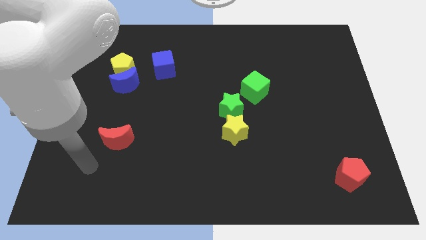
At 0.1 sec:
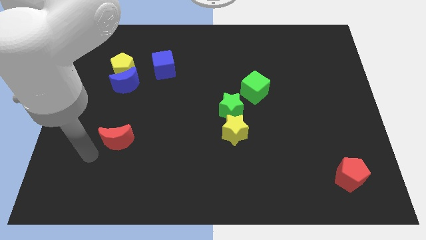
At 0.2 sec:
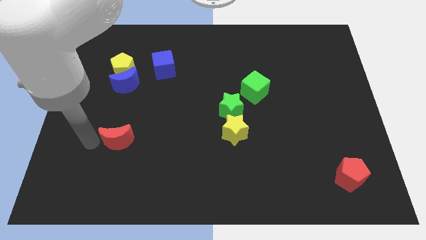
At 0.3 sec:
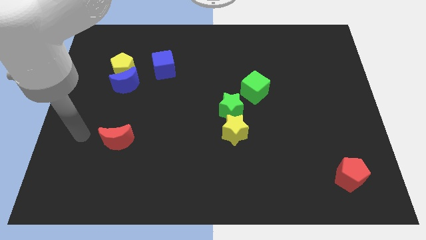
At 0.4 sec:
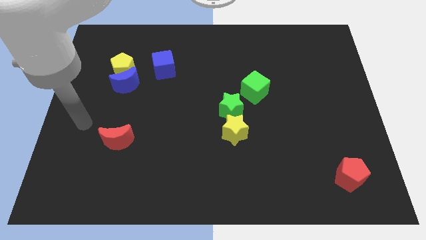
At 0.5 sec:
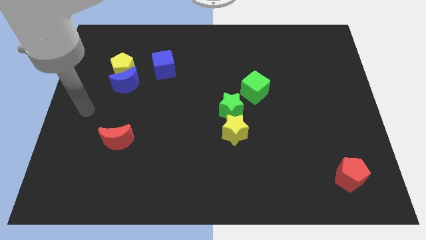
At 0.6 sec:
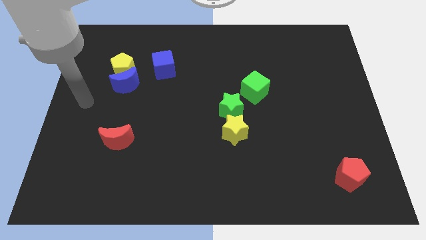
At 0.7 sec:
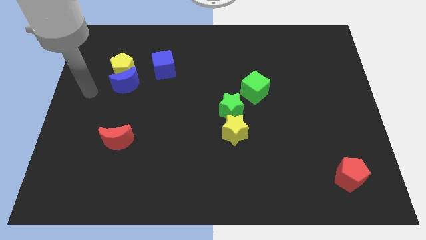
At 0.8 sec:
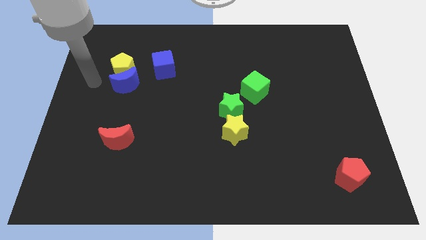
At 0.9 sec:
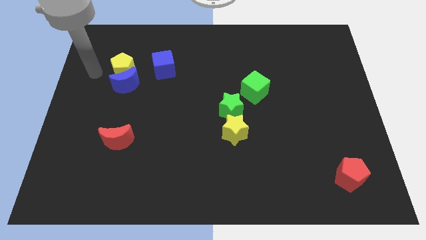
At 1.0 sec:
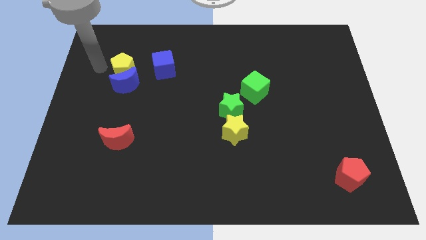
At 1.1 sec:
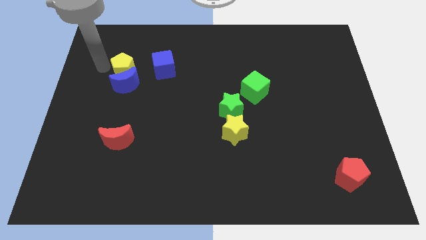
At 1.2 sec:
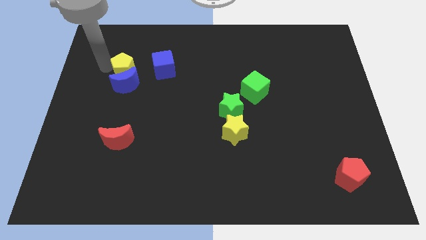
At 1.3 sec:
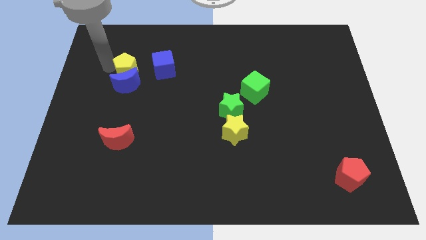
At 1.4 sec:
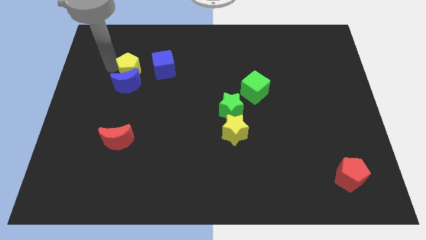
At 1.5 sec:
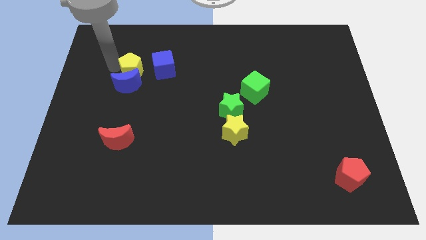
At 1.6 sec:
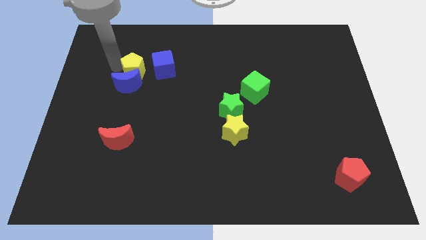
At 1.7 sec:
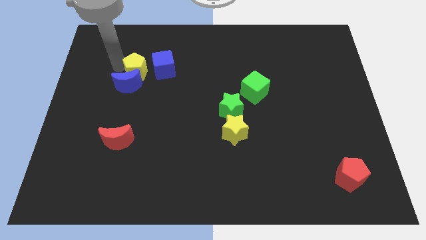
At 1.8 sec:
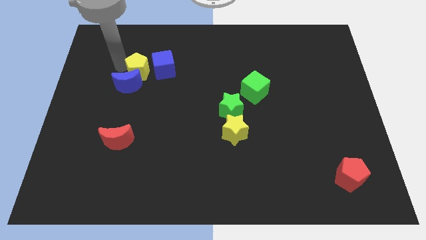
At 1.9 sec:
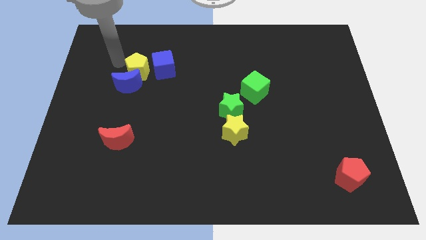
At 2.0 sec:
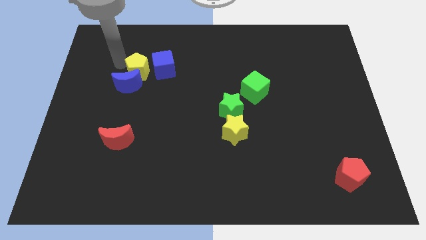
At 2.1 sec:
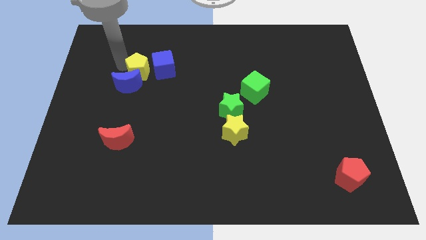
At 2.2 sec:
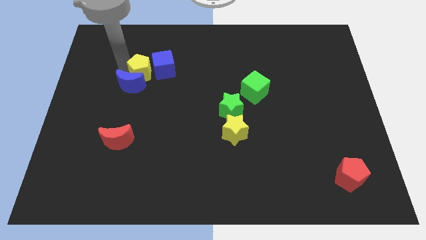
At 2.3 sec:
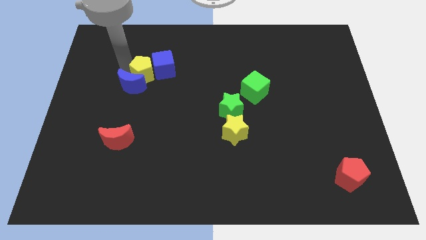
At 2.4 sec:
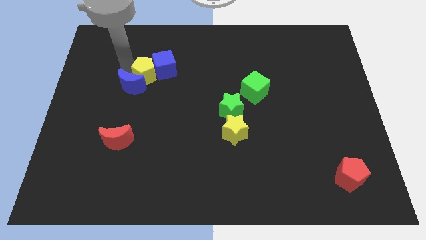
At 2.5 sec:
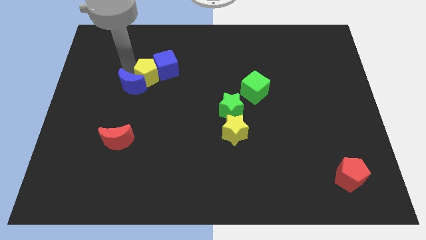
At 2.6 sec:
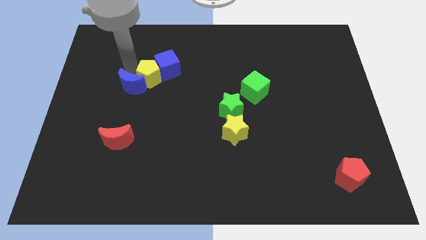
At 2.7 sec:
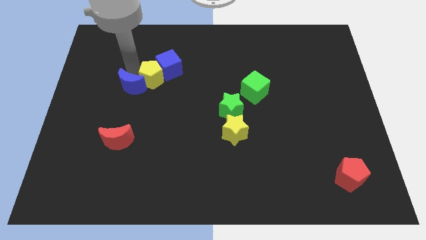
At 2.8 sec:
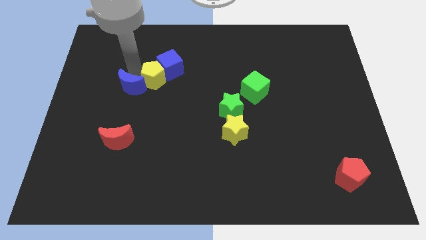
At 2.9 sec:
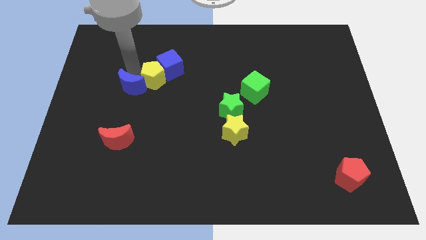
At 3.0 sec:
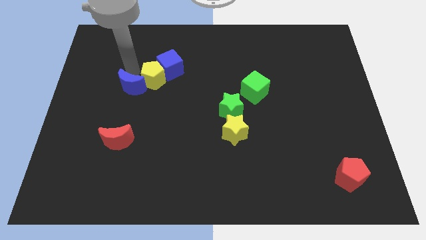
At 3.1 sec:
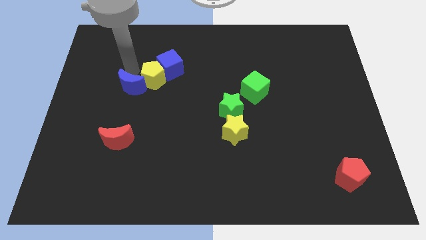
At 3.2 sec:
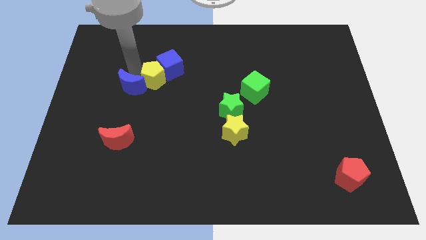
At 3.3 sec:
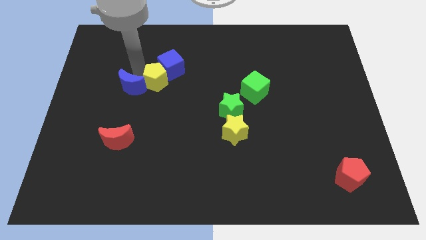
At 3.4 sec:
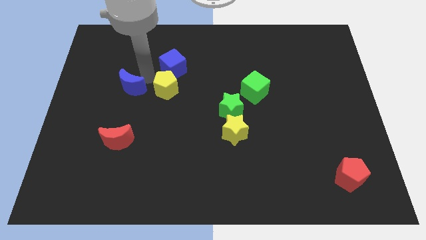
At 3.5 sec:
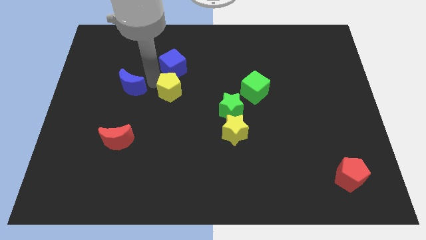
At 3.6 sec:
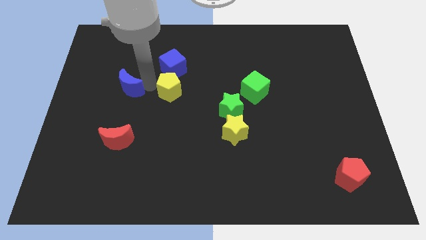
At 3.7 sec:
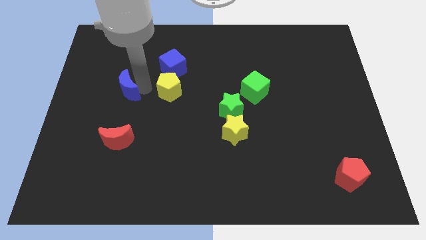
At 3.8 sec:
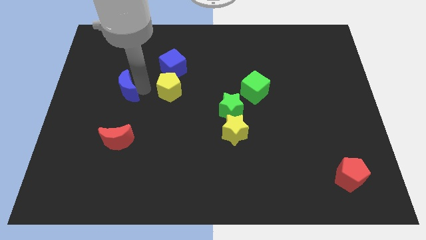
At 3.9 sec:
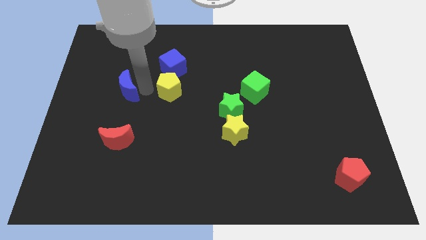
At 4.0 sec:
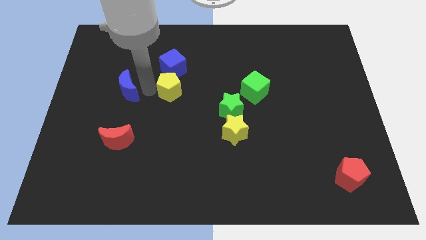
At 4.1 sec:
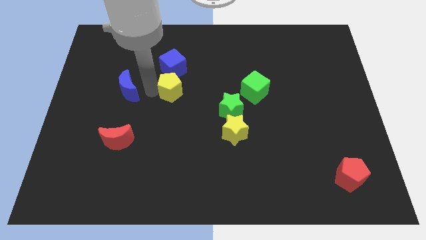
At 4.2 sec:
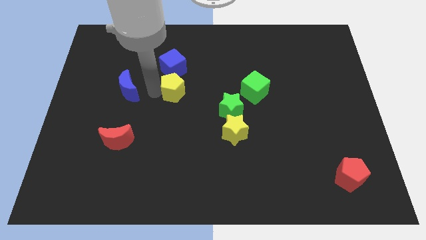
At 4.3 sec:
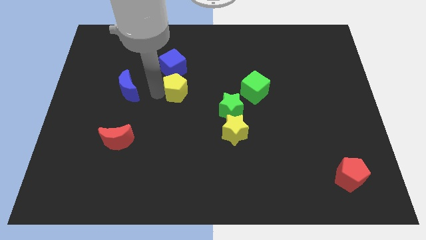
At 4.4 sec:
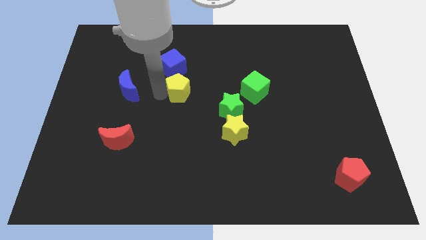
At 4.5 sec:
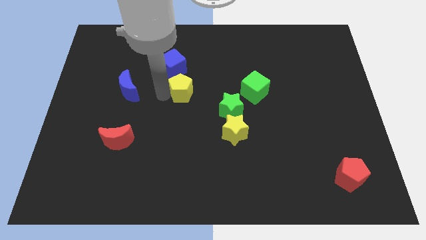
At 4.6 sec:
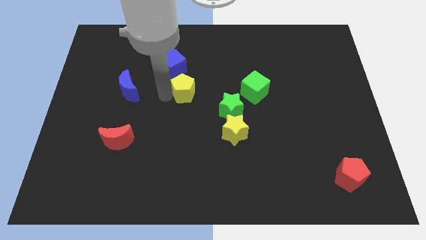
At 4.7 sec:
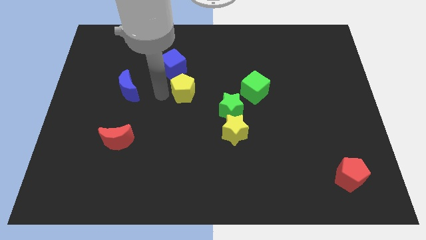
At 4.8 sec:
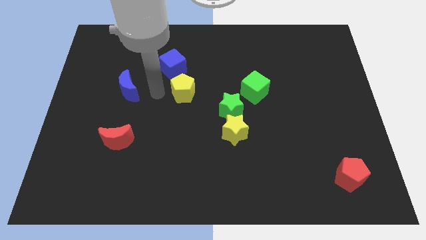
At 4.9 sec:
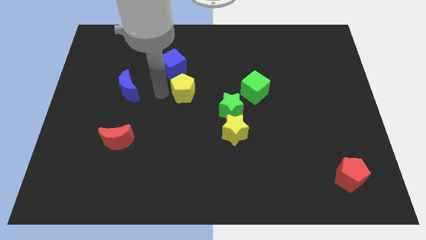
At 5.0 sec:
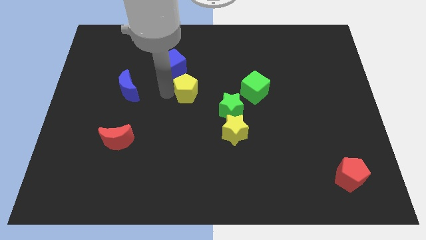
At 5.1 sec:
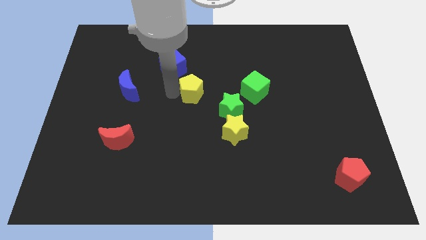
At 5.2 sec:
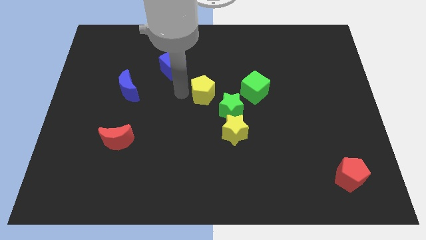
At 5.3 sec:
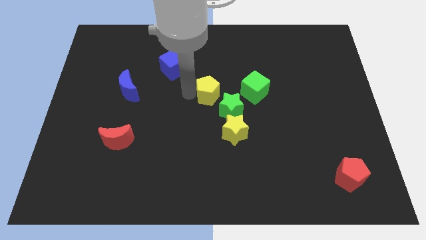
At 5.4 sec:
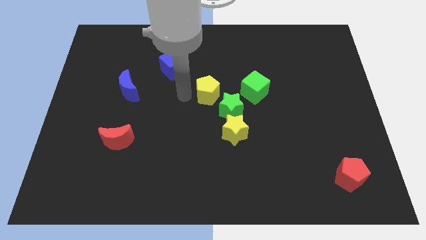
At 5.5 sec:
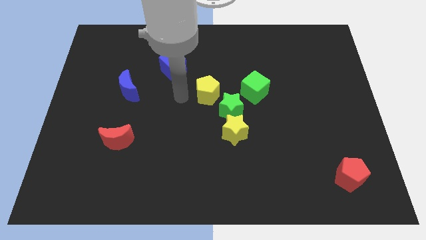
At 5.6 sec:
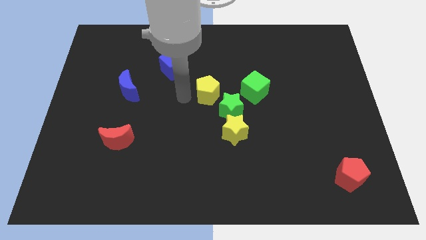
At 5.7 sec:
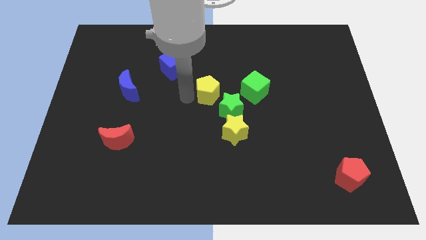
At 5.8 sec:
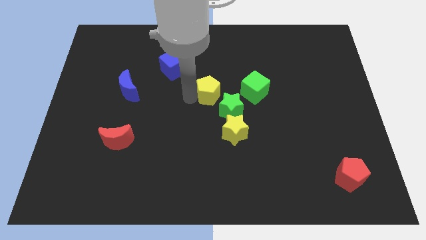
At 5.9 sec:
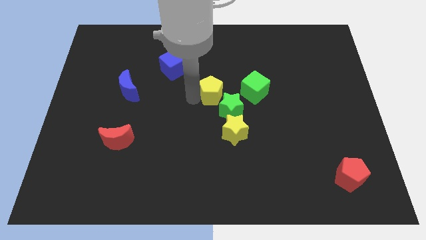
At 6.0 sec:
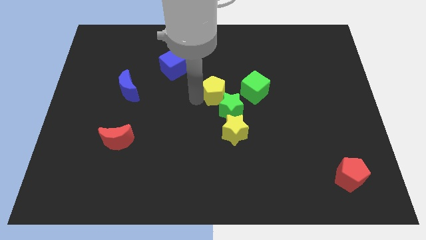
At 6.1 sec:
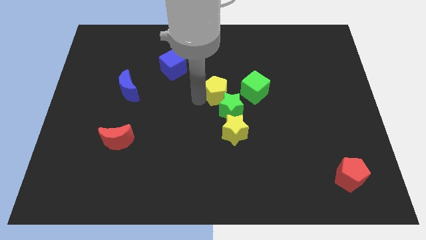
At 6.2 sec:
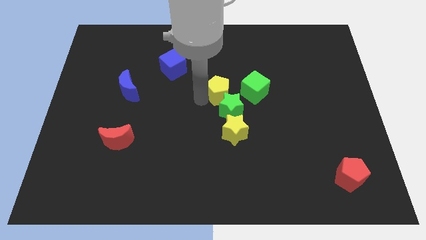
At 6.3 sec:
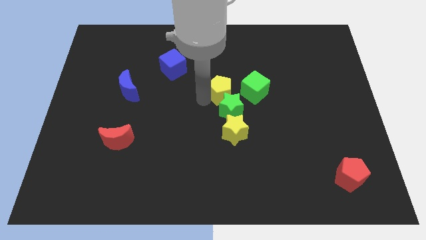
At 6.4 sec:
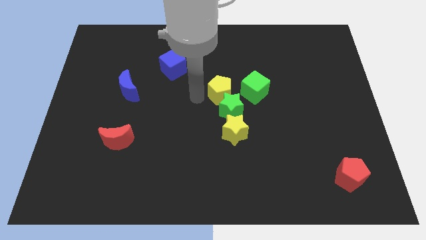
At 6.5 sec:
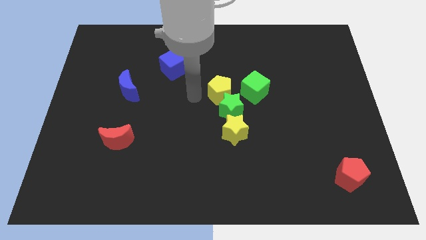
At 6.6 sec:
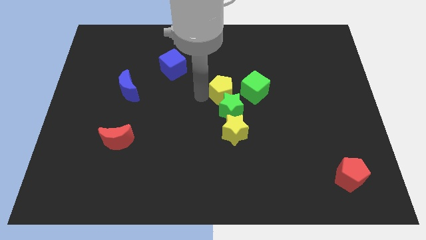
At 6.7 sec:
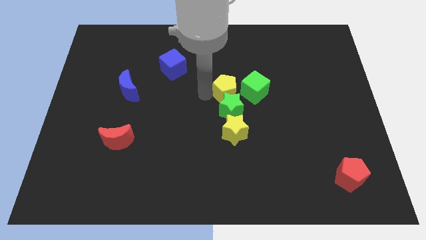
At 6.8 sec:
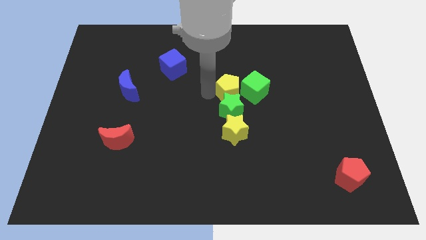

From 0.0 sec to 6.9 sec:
move the yellow pentagon towards the green cube
